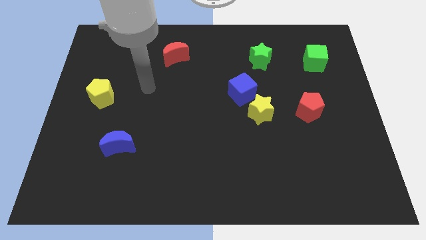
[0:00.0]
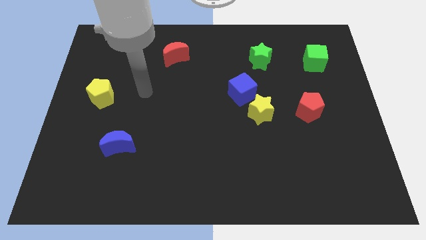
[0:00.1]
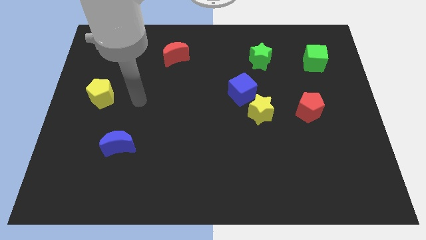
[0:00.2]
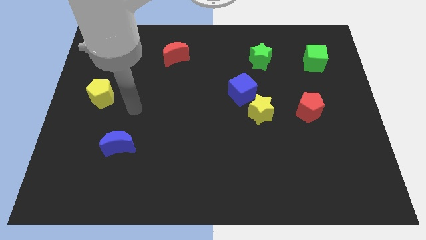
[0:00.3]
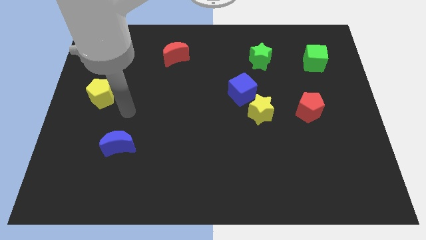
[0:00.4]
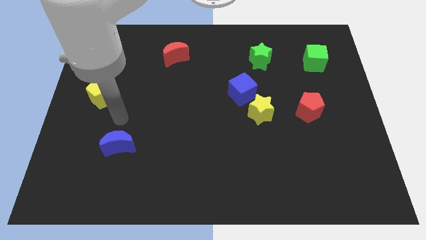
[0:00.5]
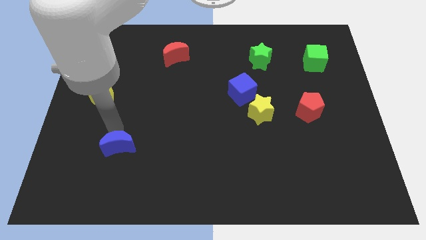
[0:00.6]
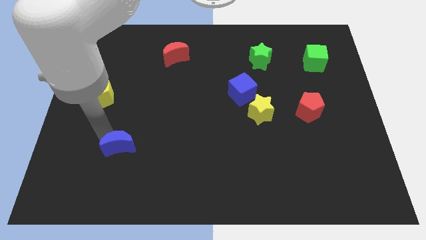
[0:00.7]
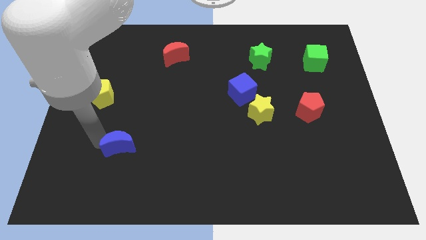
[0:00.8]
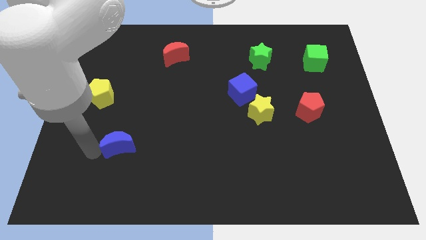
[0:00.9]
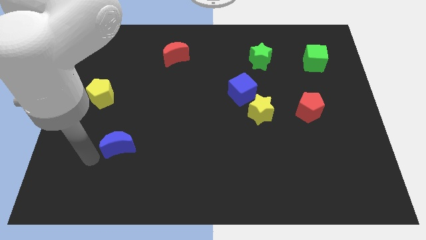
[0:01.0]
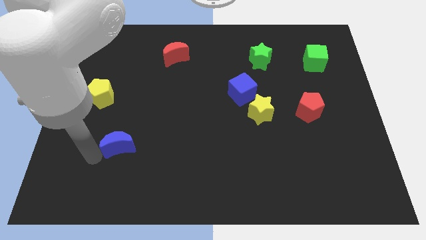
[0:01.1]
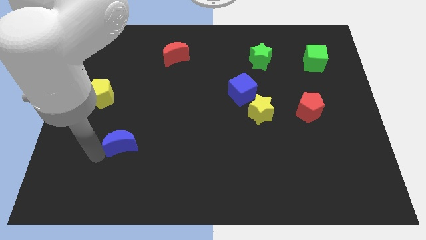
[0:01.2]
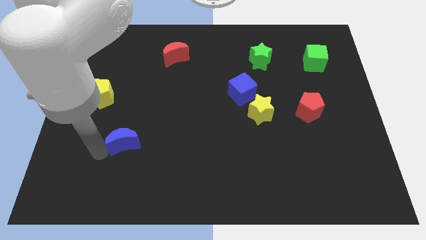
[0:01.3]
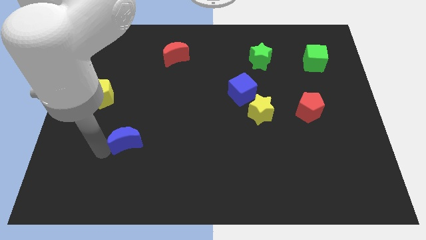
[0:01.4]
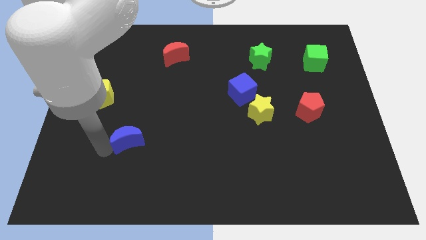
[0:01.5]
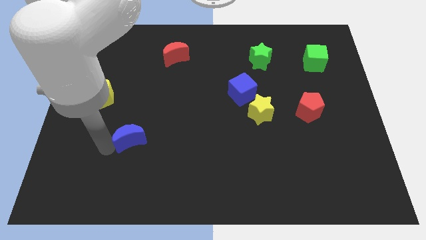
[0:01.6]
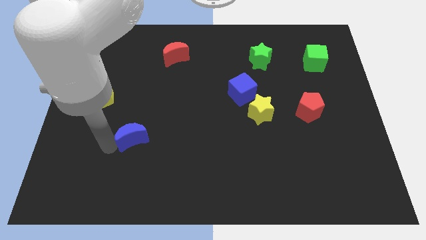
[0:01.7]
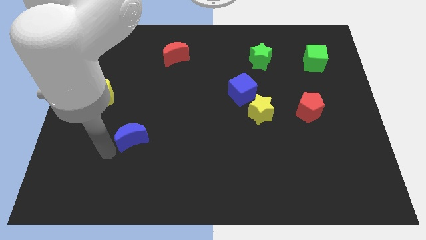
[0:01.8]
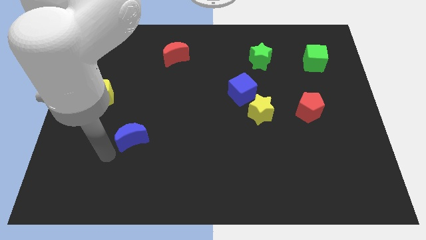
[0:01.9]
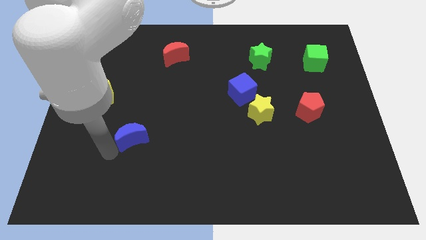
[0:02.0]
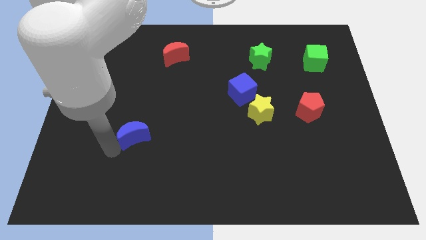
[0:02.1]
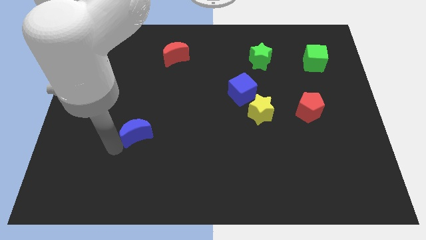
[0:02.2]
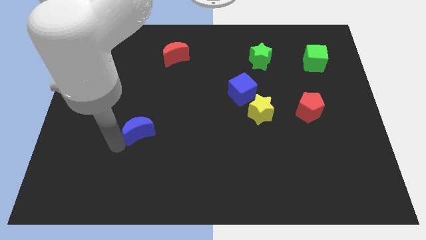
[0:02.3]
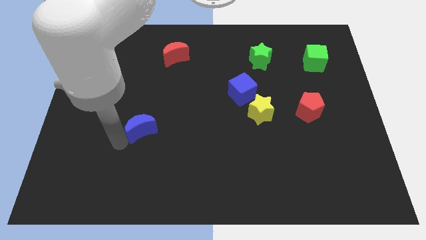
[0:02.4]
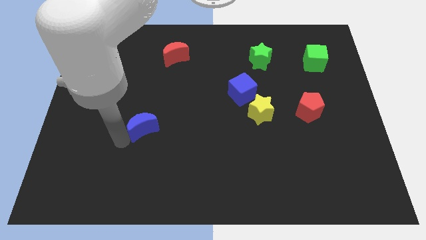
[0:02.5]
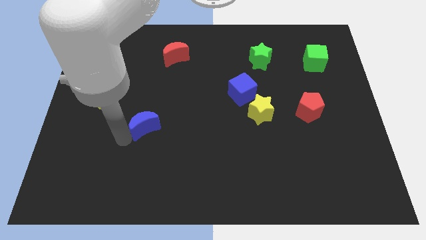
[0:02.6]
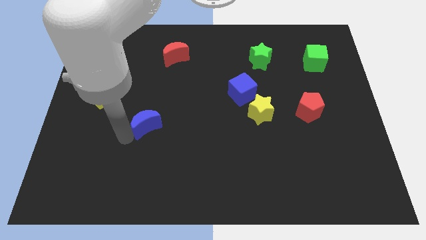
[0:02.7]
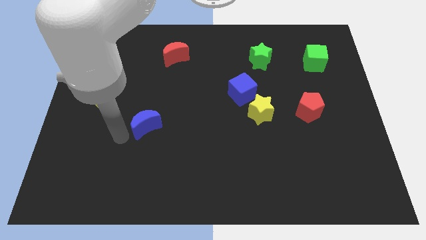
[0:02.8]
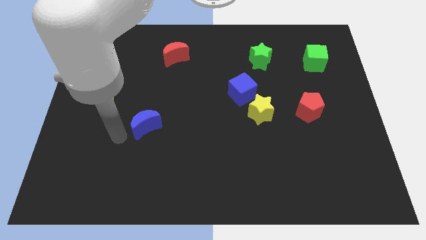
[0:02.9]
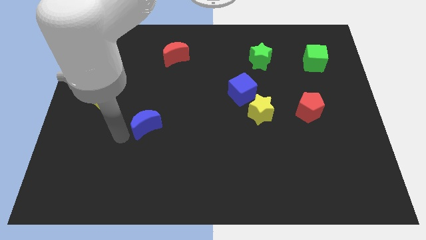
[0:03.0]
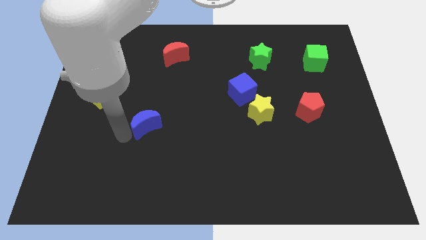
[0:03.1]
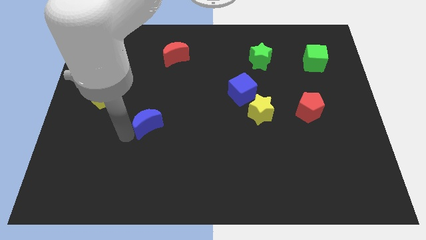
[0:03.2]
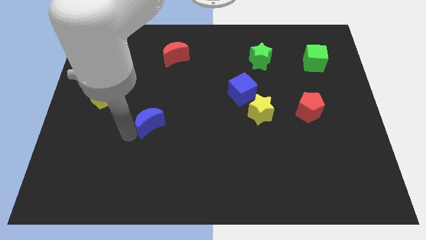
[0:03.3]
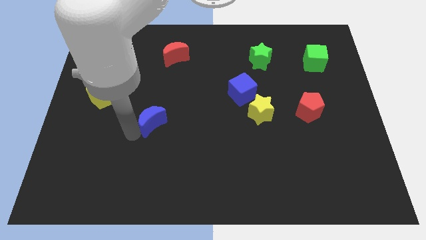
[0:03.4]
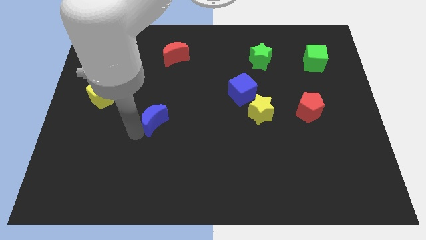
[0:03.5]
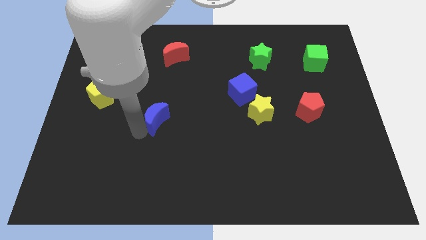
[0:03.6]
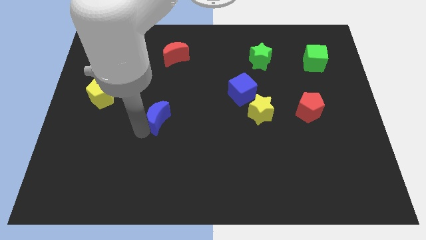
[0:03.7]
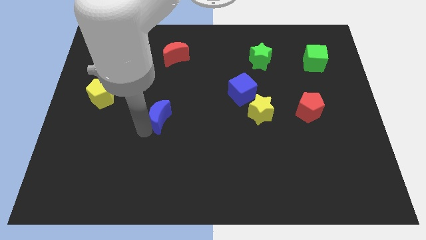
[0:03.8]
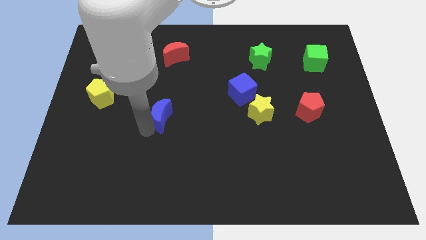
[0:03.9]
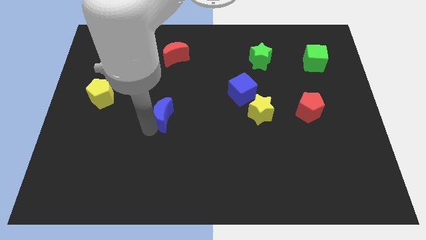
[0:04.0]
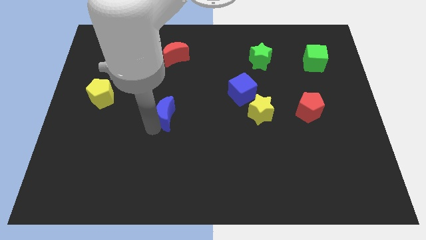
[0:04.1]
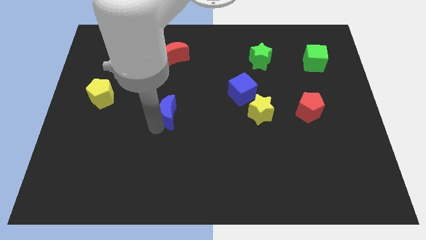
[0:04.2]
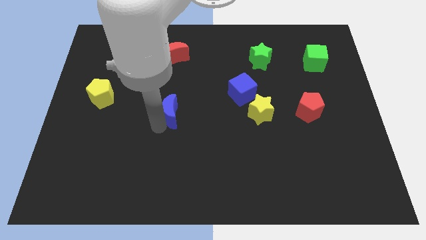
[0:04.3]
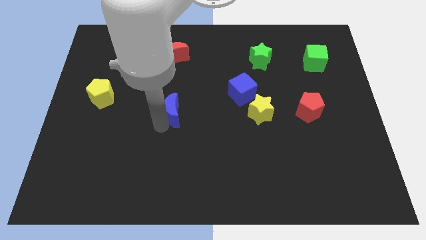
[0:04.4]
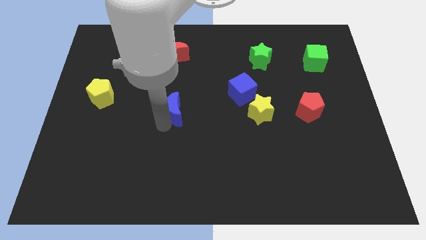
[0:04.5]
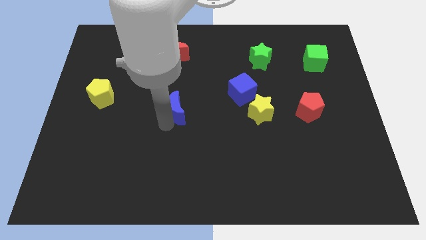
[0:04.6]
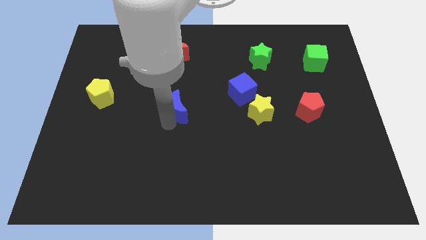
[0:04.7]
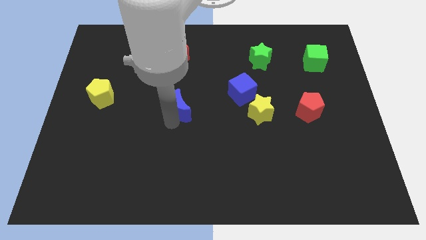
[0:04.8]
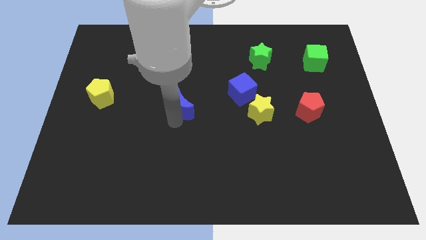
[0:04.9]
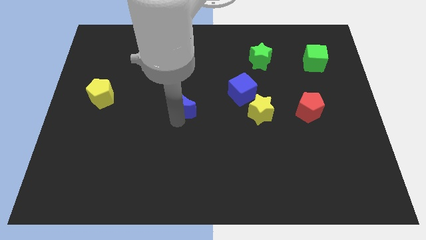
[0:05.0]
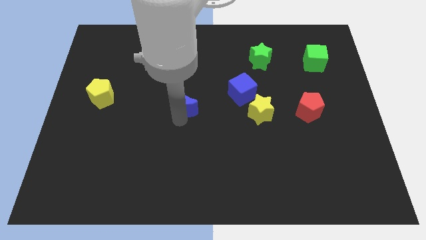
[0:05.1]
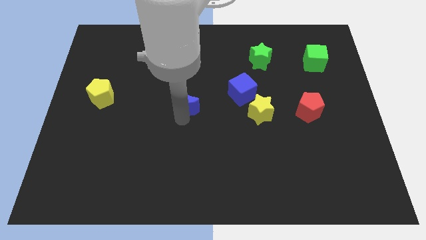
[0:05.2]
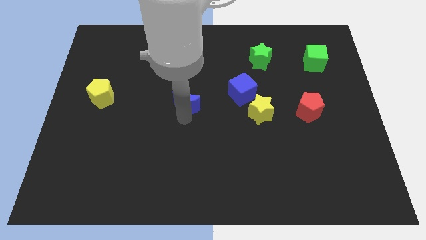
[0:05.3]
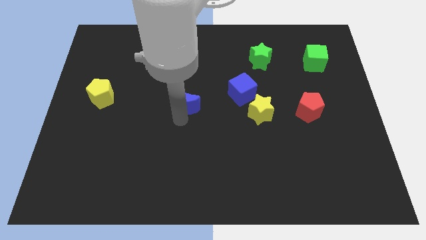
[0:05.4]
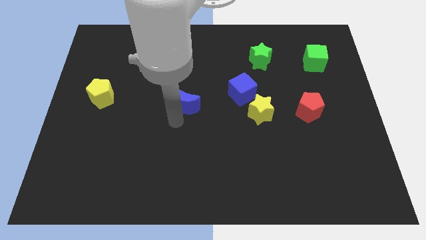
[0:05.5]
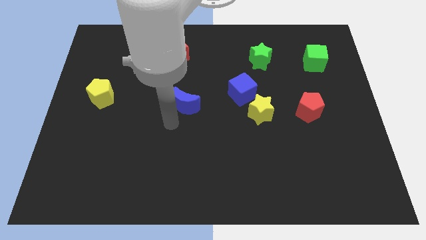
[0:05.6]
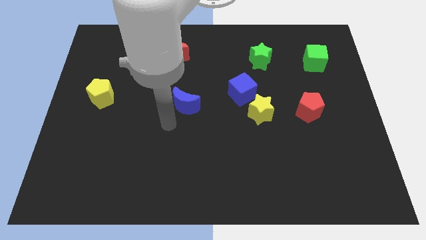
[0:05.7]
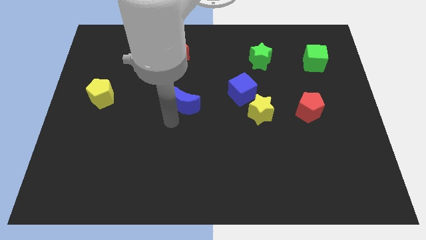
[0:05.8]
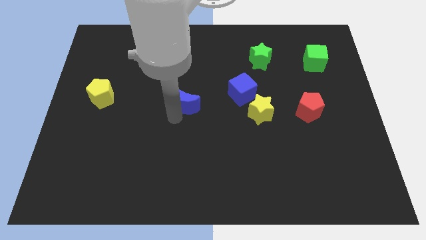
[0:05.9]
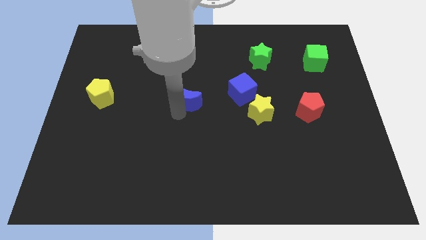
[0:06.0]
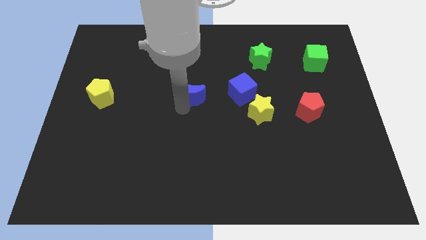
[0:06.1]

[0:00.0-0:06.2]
slide the blue moon up and to the right

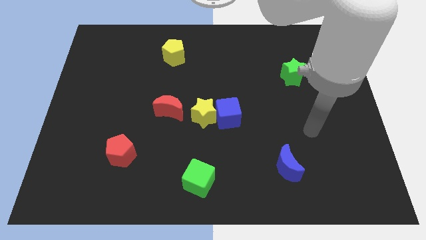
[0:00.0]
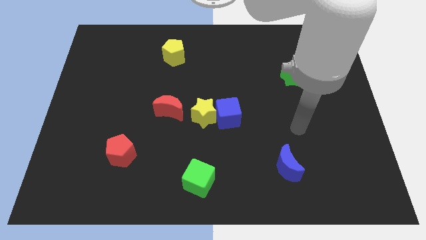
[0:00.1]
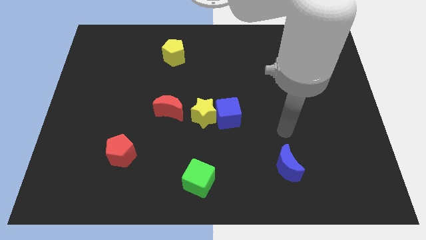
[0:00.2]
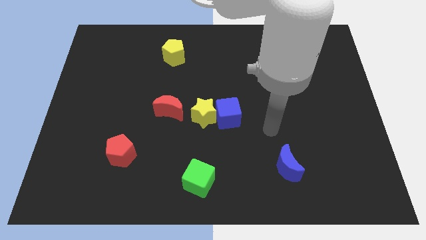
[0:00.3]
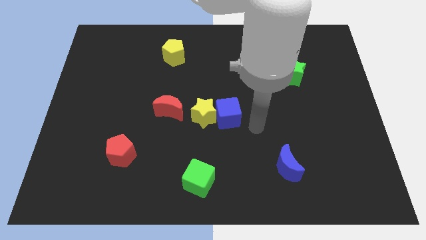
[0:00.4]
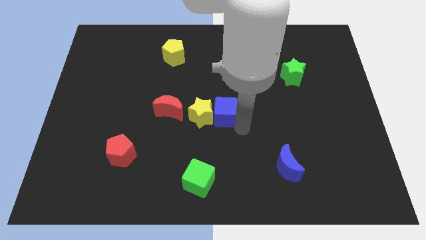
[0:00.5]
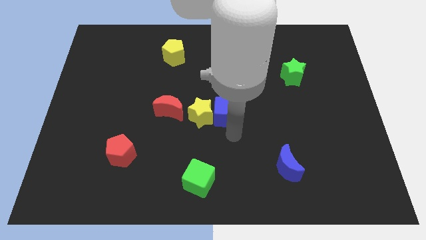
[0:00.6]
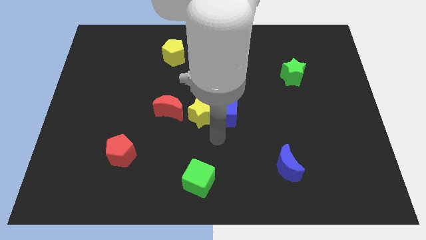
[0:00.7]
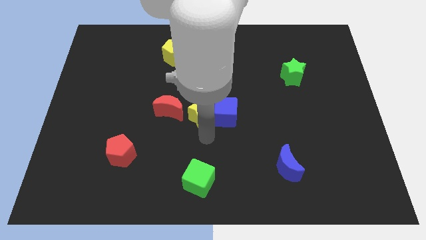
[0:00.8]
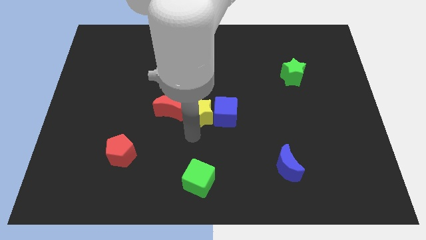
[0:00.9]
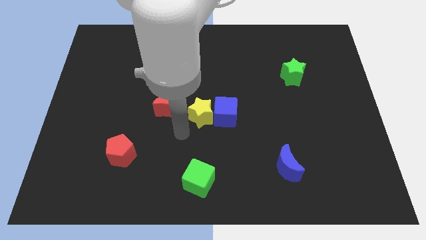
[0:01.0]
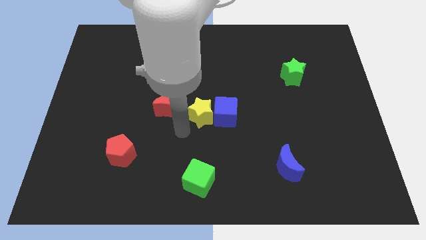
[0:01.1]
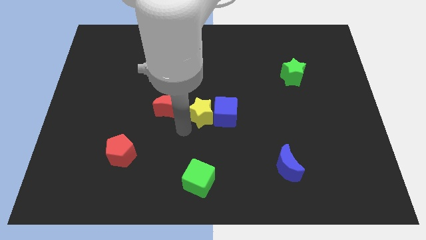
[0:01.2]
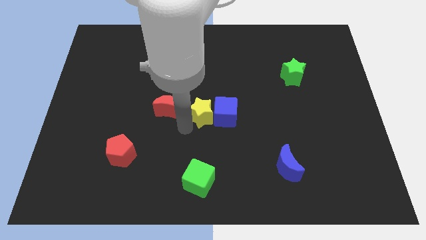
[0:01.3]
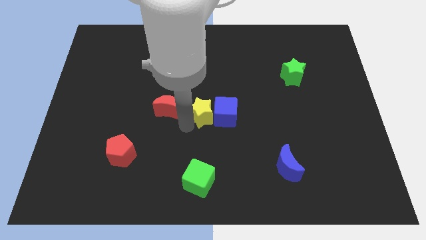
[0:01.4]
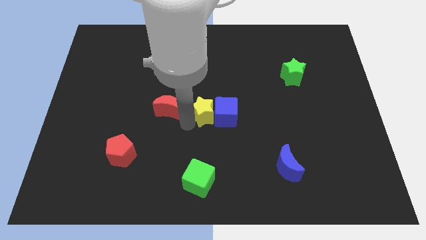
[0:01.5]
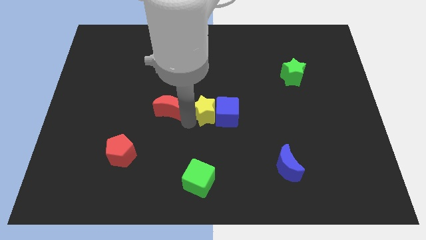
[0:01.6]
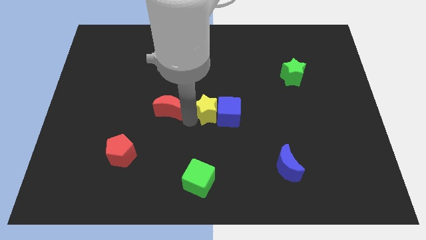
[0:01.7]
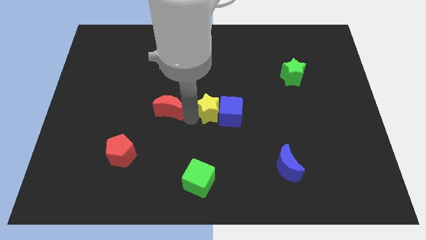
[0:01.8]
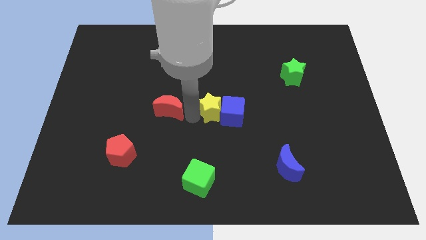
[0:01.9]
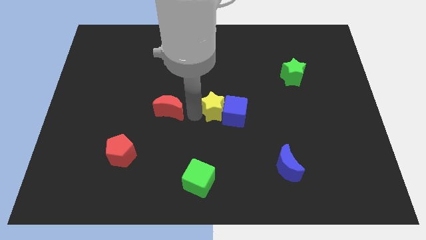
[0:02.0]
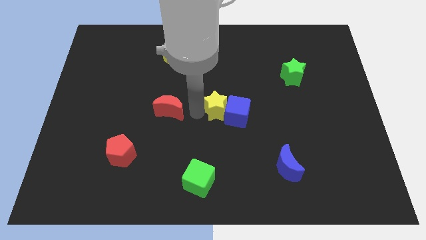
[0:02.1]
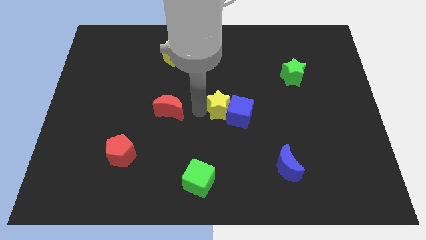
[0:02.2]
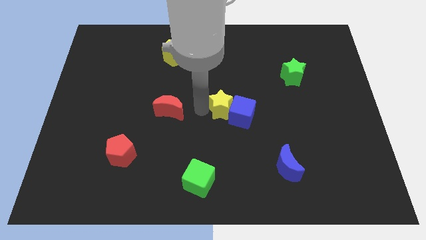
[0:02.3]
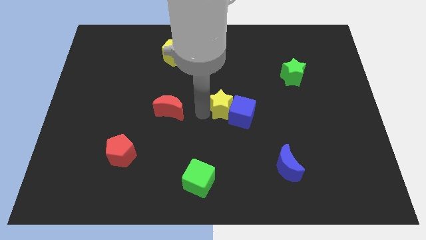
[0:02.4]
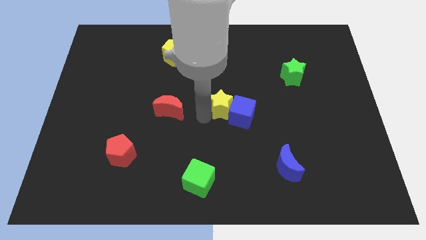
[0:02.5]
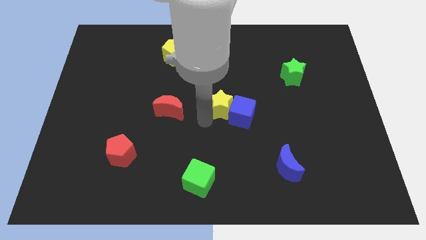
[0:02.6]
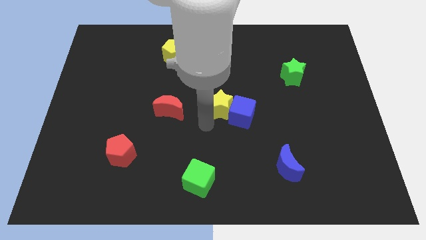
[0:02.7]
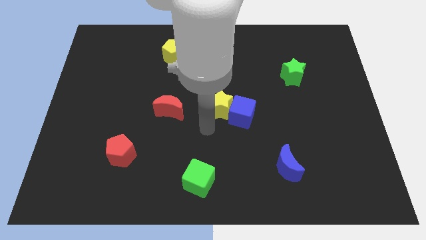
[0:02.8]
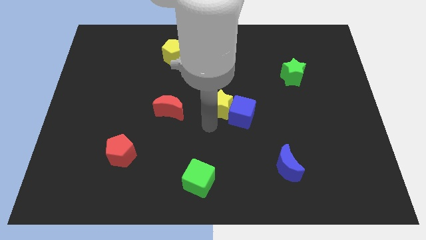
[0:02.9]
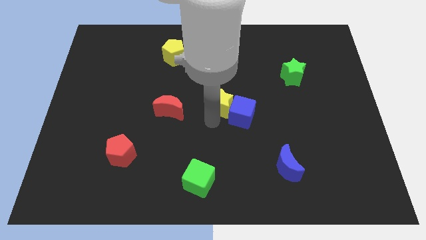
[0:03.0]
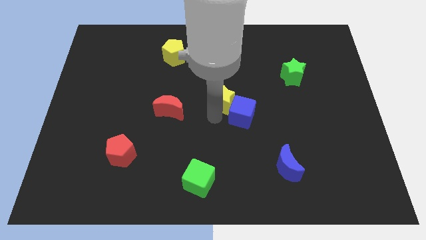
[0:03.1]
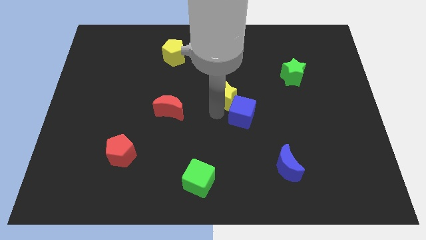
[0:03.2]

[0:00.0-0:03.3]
push the yellow star upwards and right diagonally slightly
